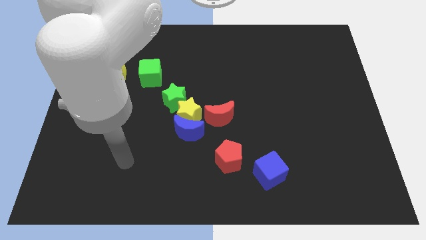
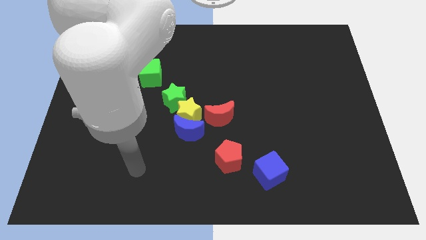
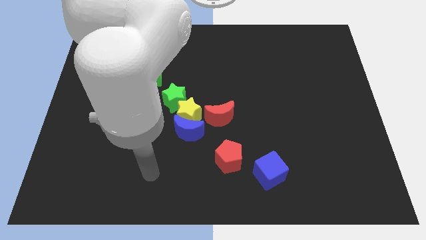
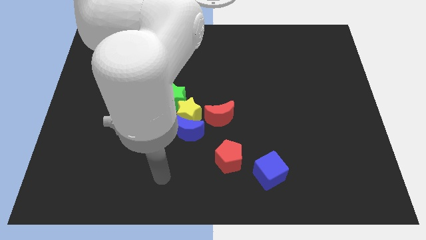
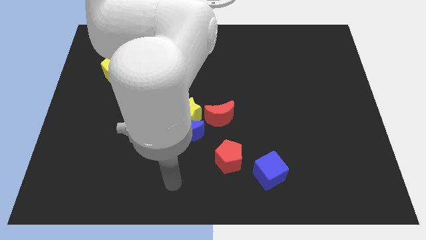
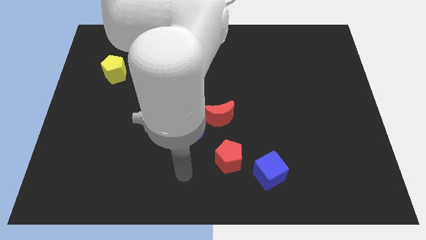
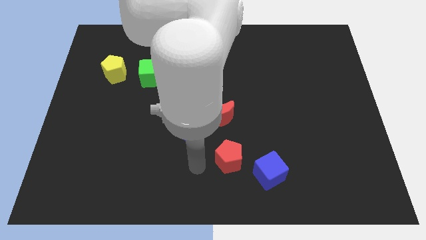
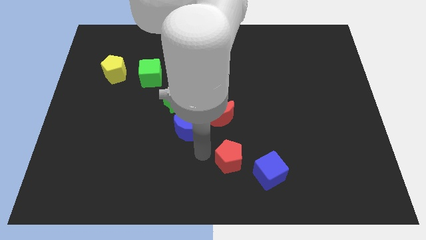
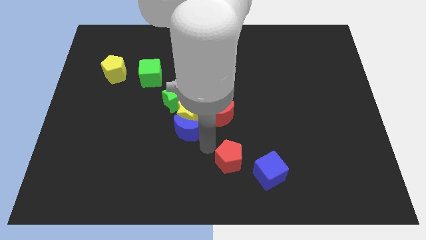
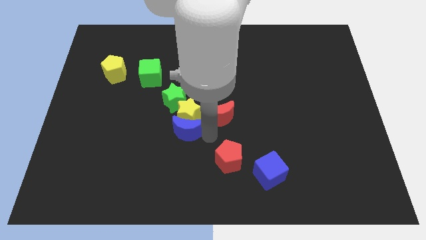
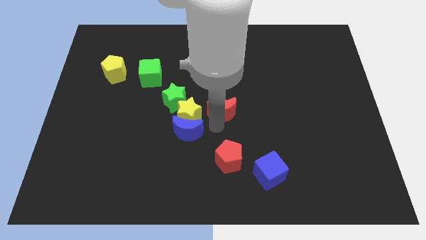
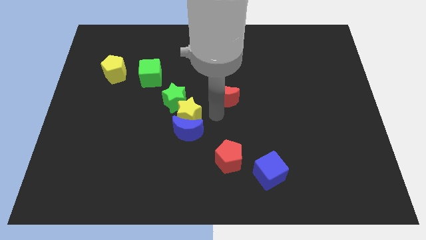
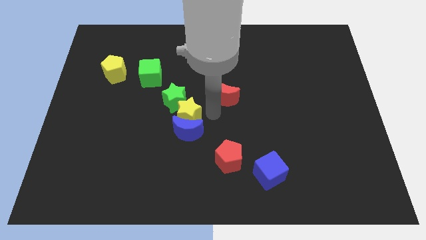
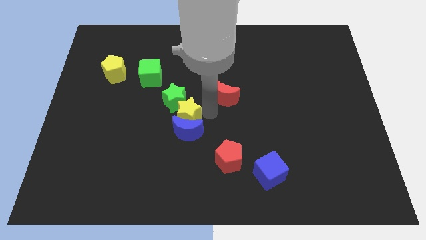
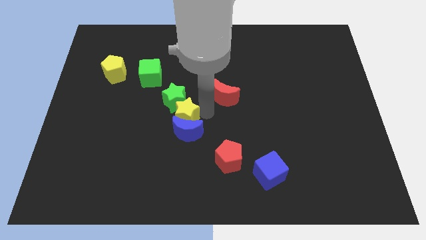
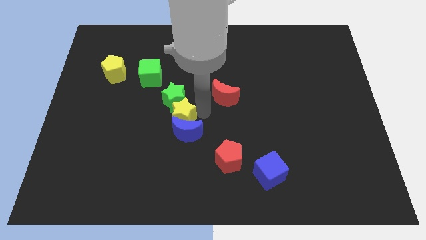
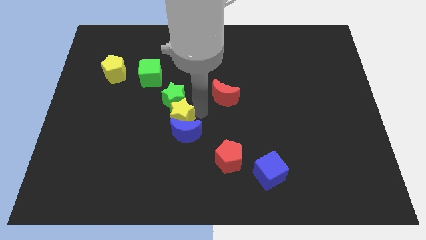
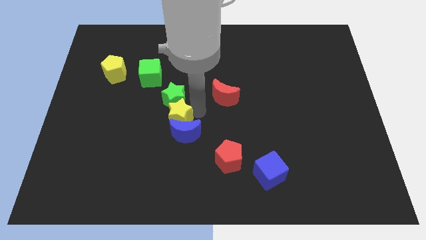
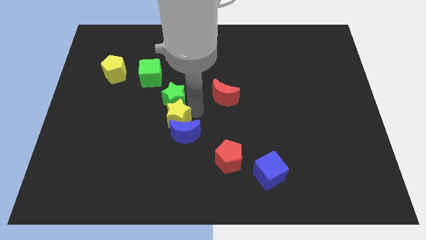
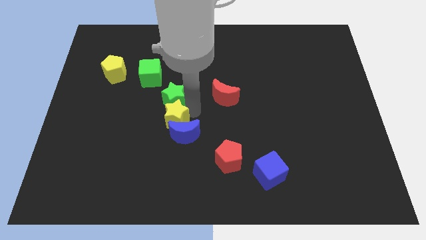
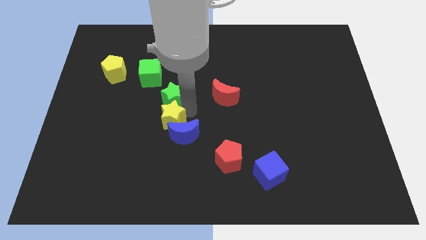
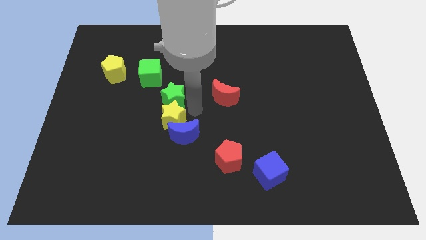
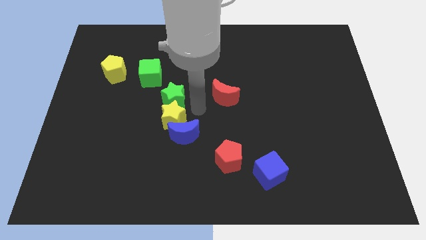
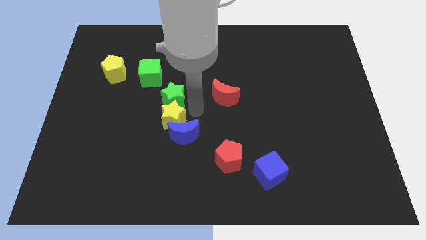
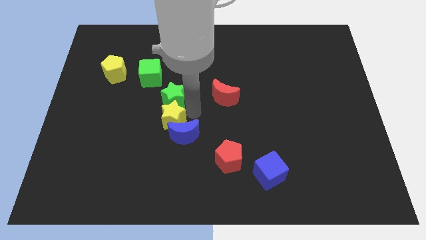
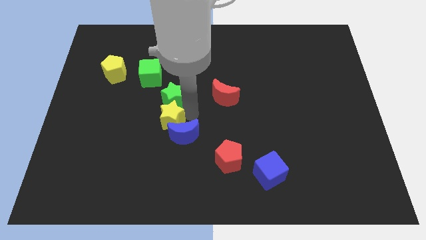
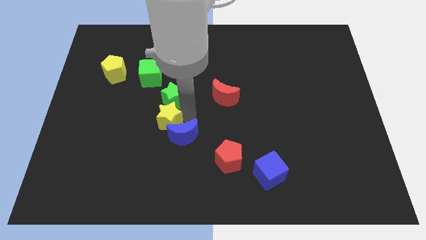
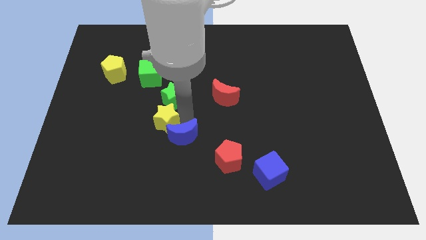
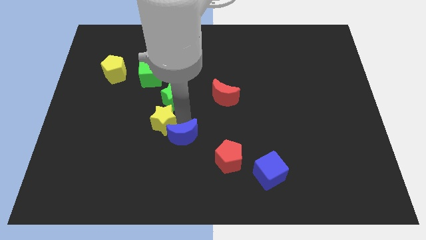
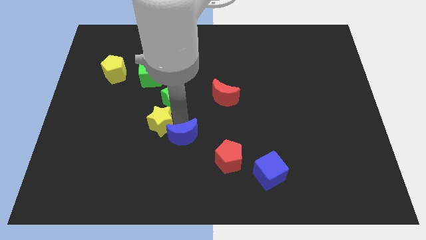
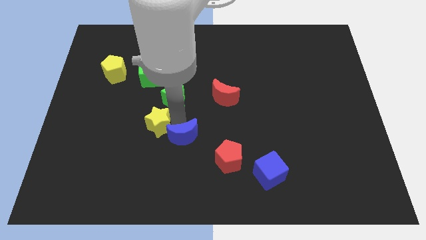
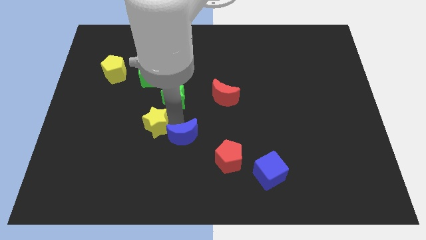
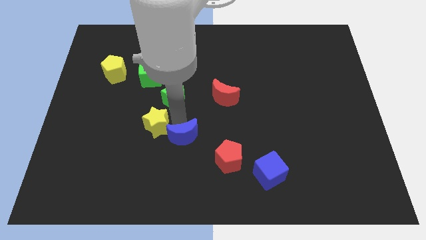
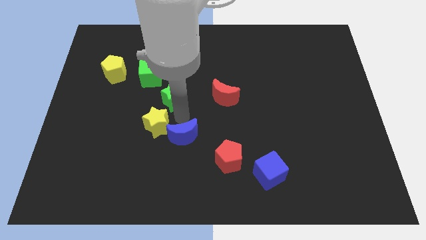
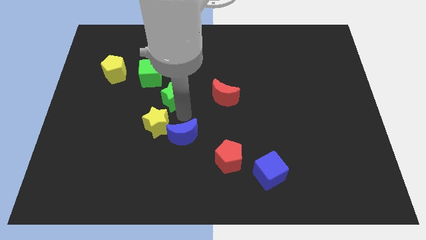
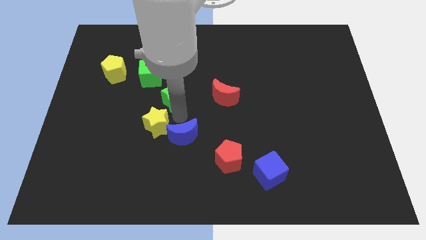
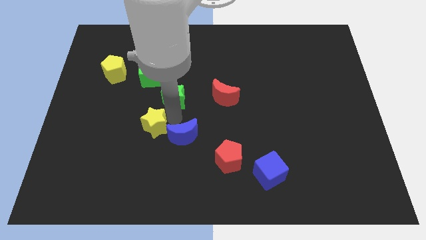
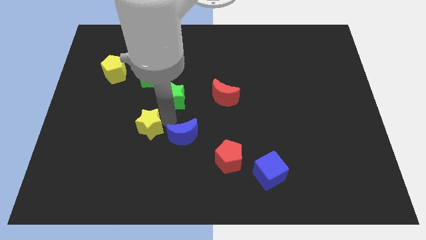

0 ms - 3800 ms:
pull the yellow star apart from the group

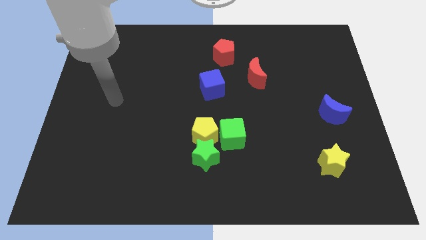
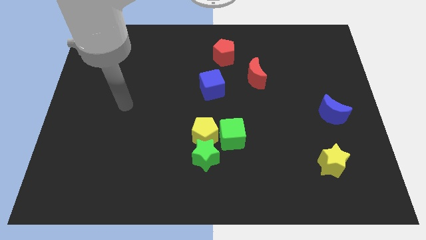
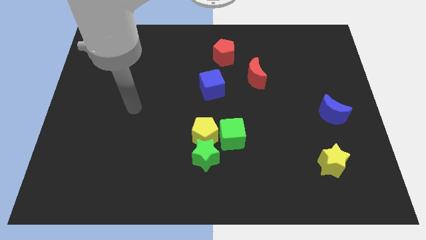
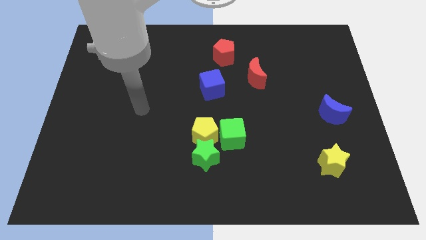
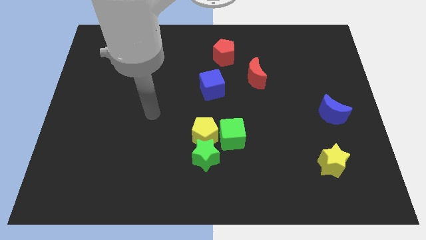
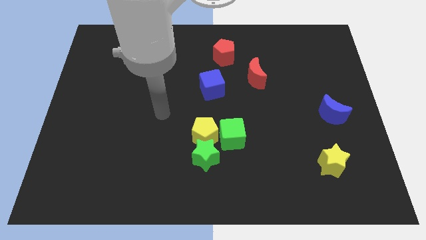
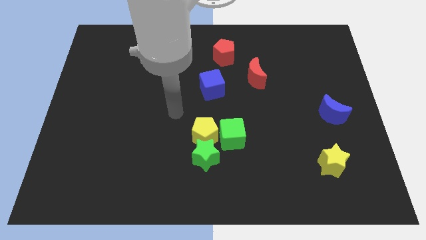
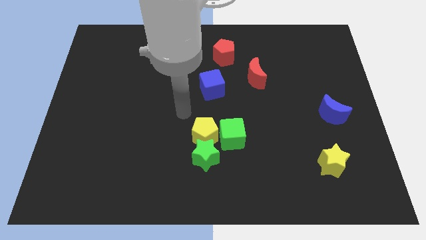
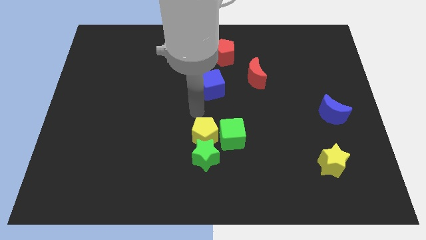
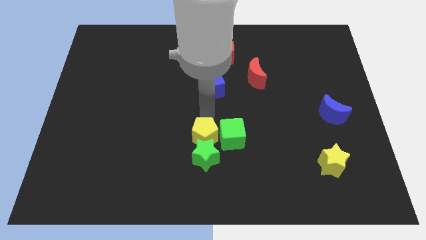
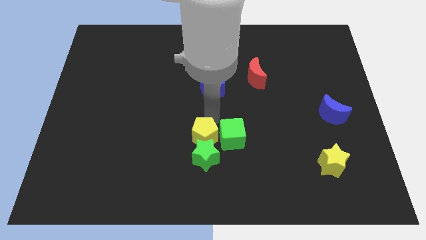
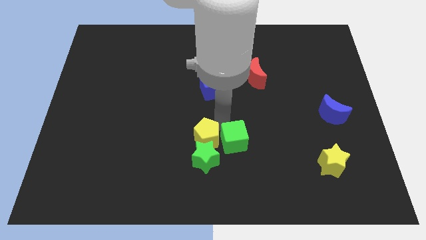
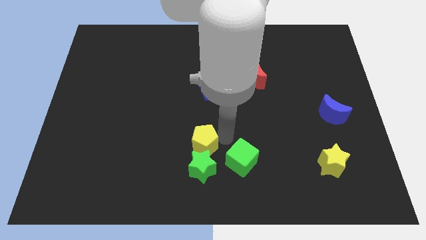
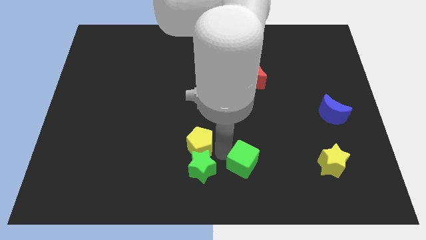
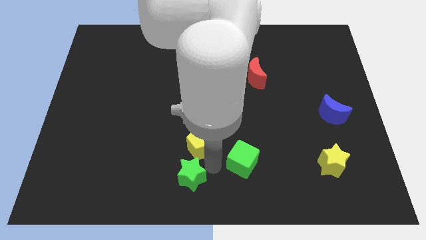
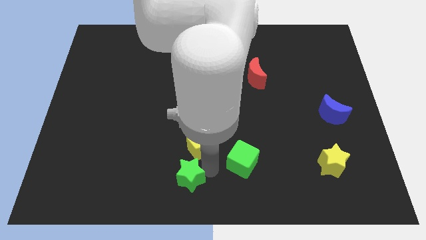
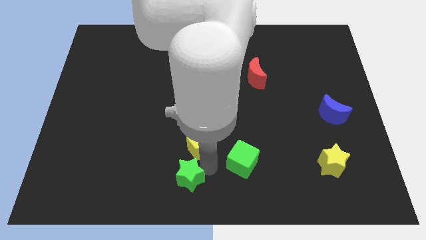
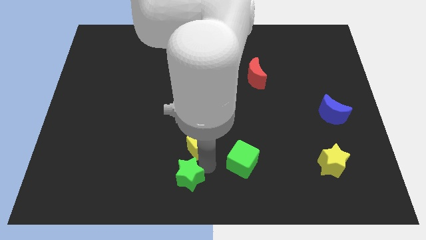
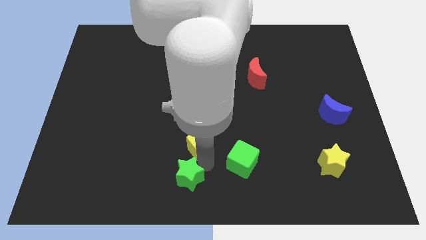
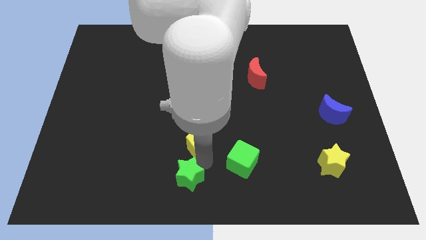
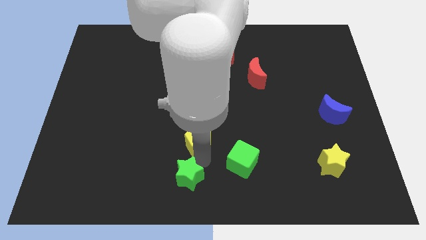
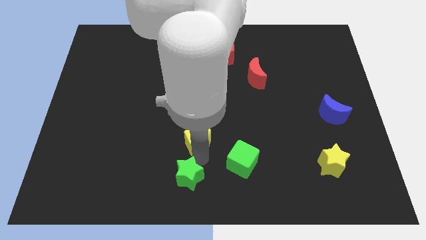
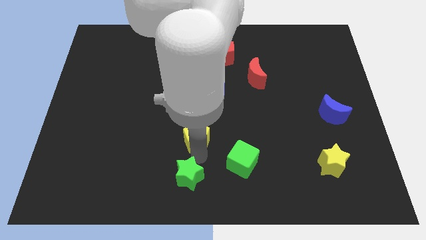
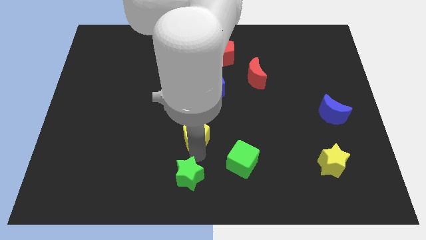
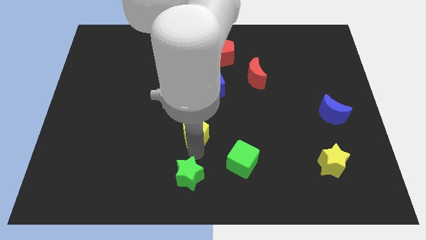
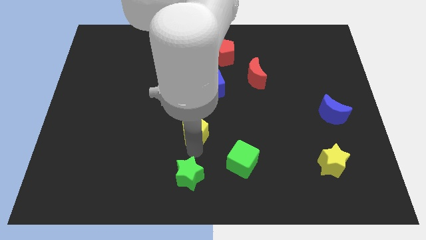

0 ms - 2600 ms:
pull the yellow pentagon apart from the green star and green cube

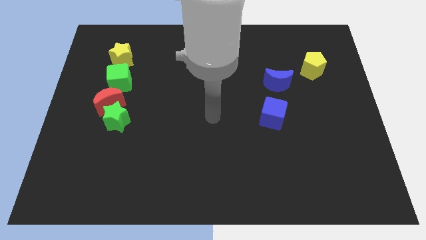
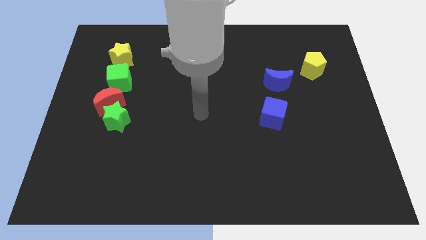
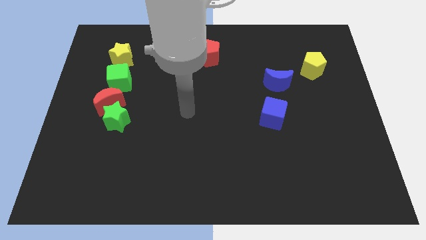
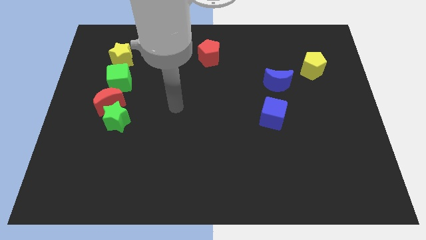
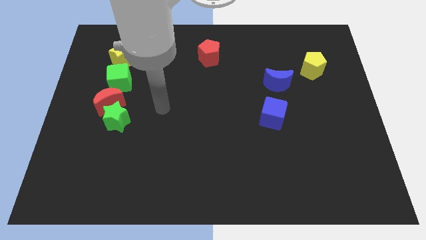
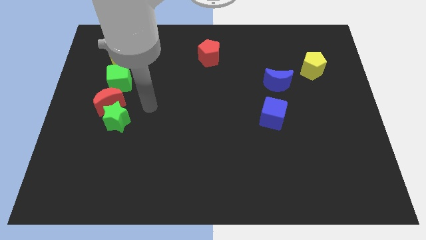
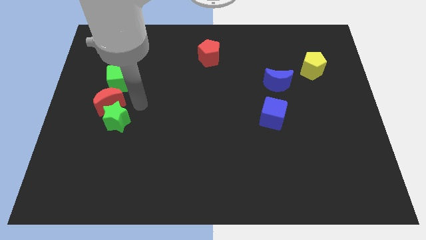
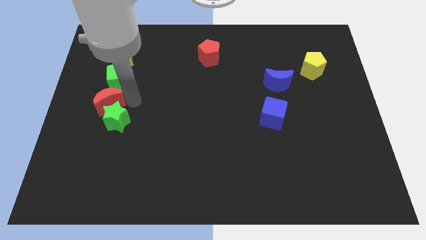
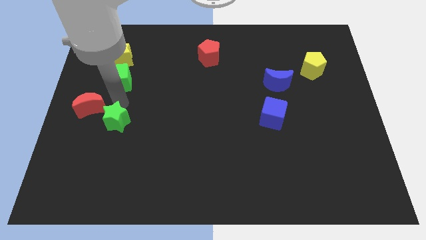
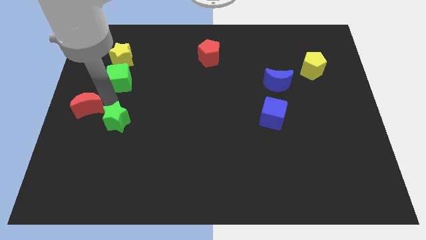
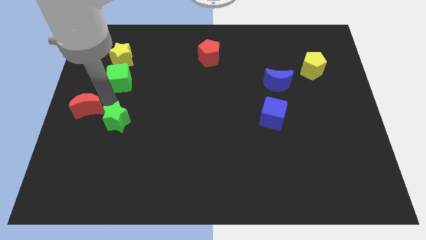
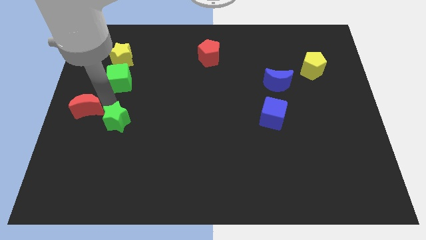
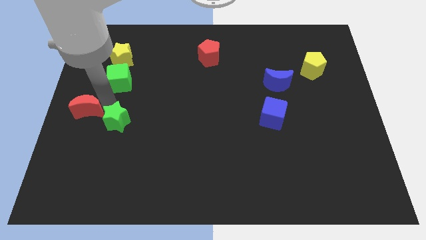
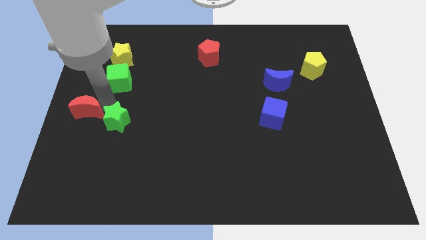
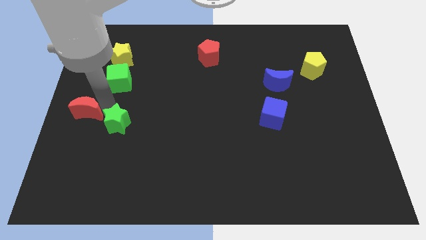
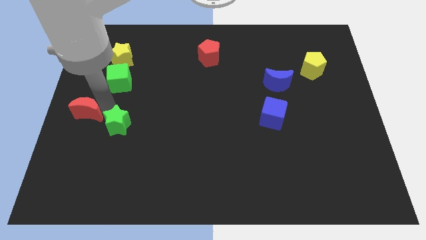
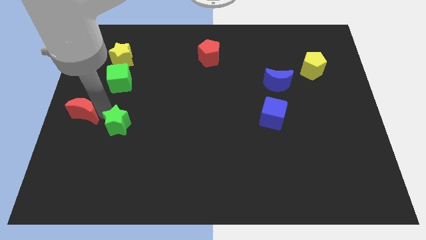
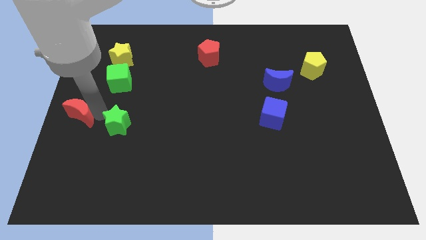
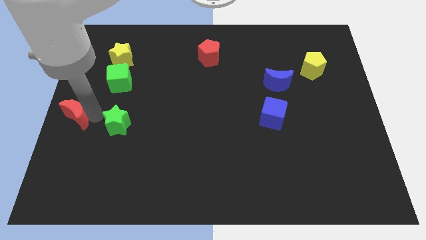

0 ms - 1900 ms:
separate the green star from the red moon

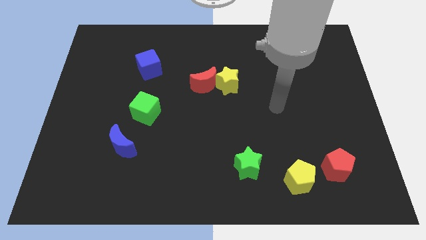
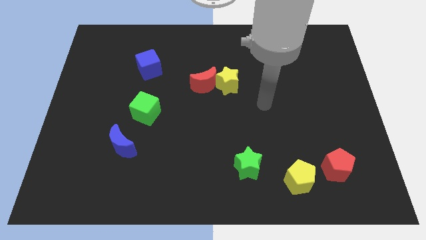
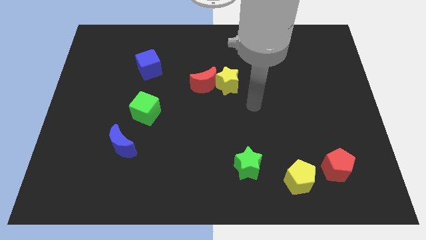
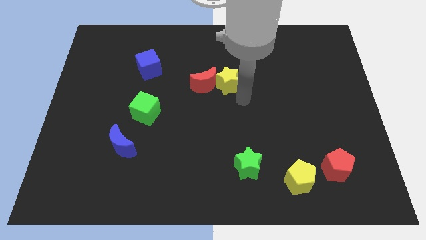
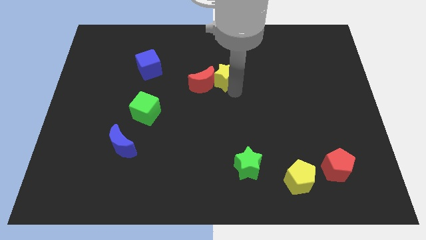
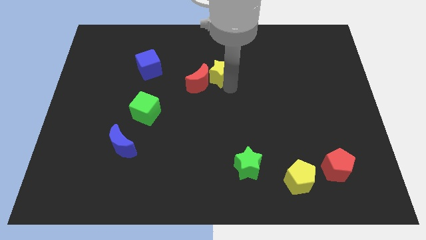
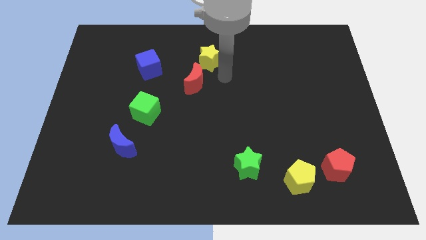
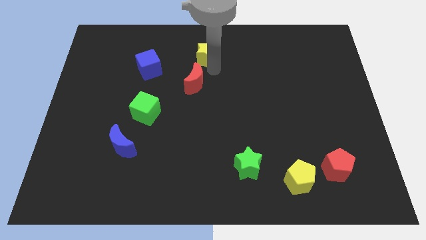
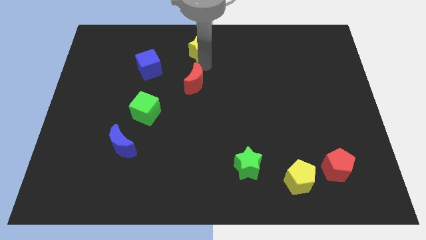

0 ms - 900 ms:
separate the red moon from the yellow star

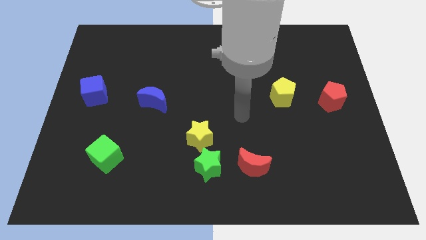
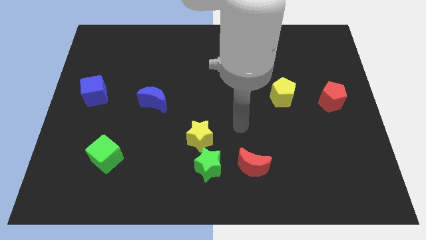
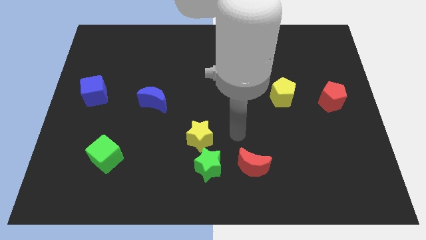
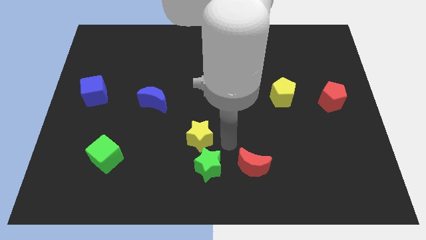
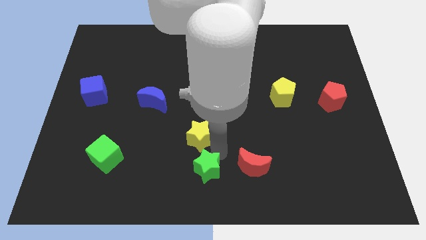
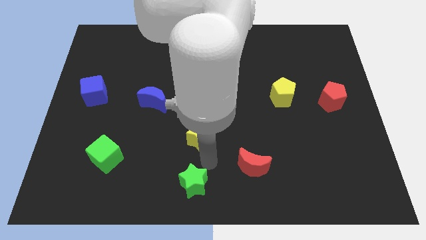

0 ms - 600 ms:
pull the yellow star apart from the green star
